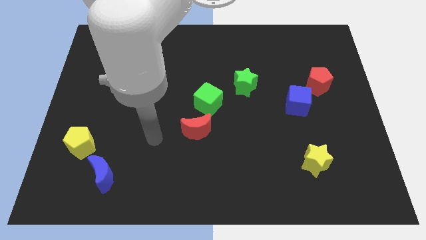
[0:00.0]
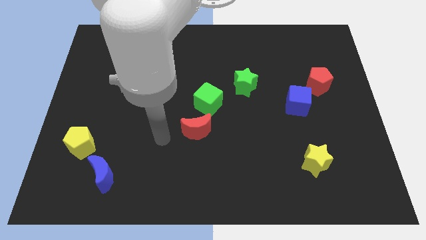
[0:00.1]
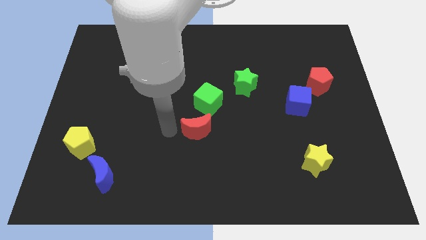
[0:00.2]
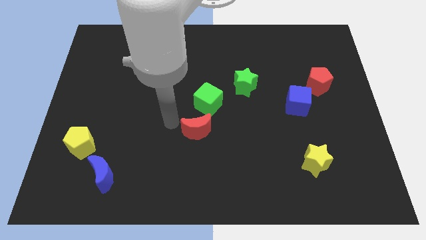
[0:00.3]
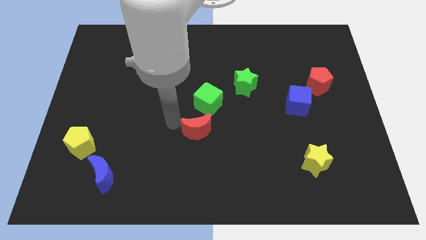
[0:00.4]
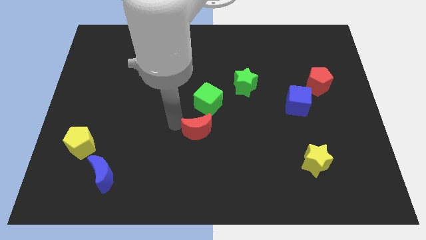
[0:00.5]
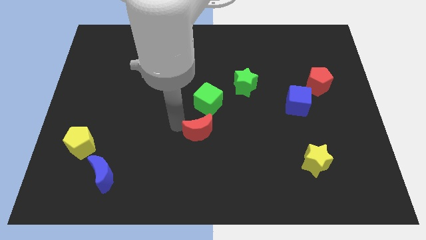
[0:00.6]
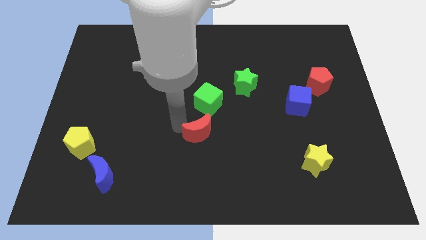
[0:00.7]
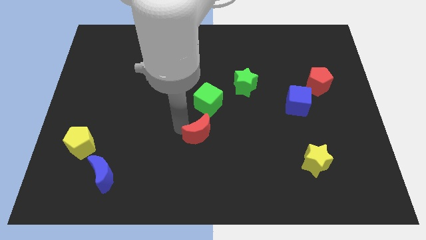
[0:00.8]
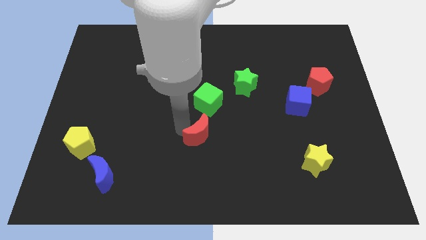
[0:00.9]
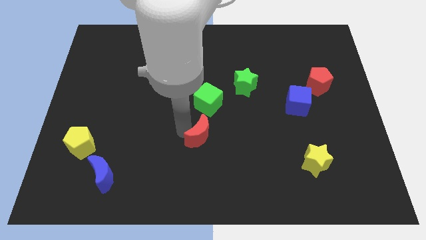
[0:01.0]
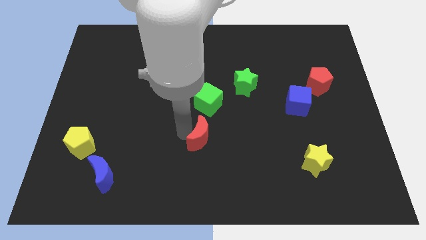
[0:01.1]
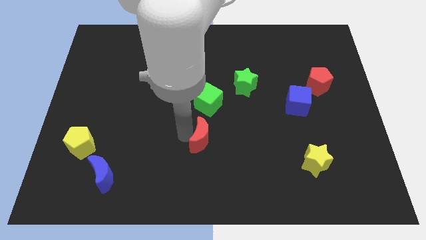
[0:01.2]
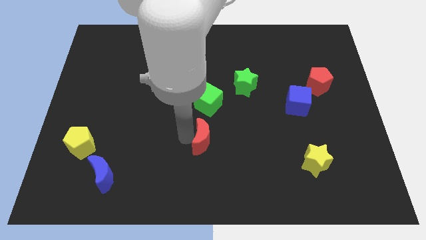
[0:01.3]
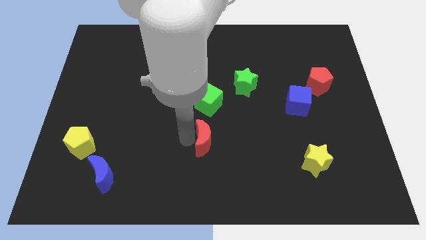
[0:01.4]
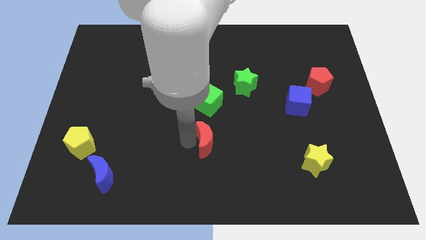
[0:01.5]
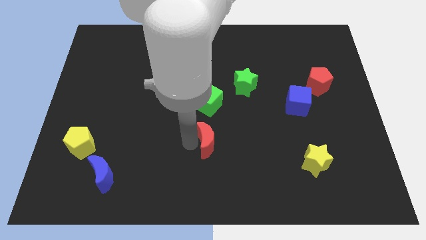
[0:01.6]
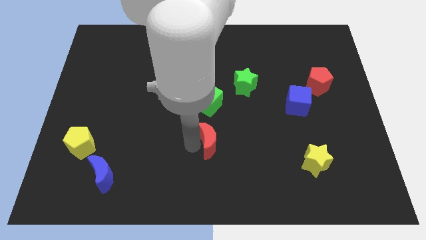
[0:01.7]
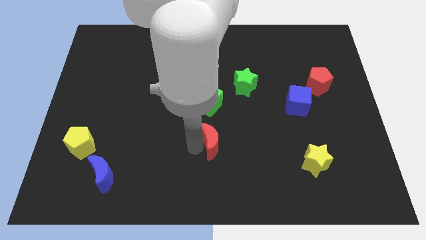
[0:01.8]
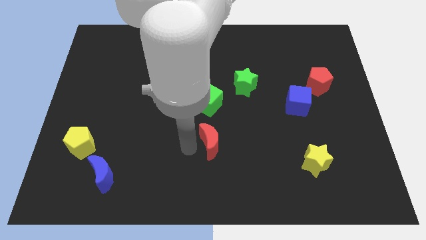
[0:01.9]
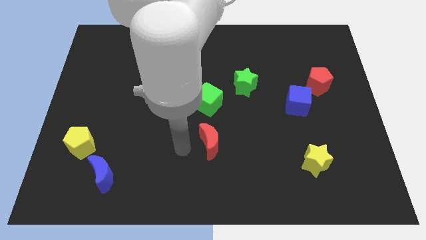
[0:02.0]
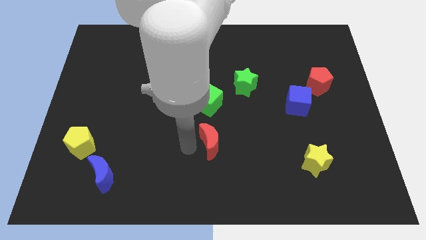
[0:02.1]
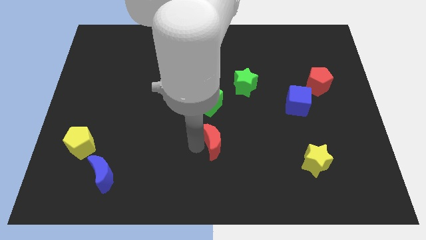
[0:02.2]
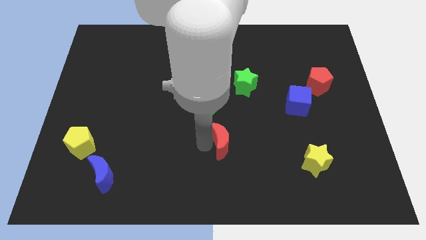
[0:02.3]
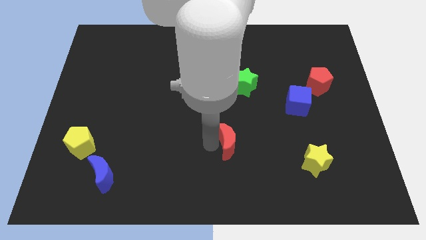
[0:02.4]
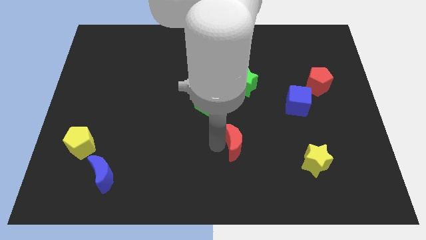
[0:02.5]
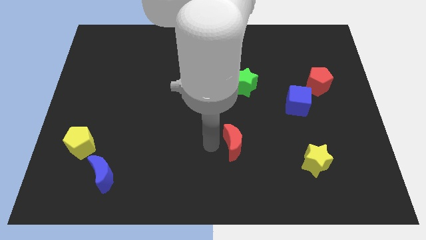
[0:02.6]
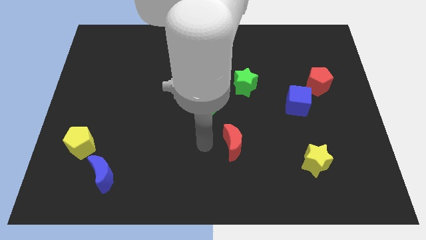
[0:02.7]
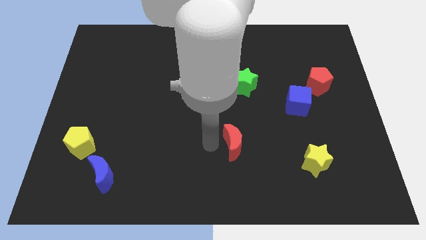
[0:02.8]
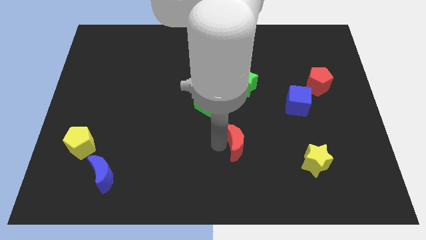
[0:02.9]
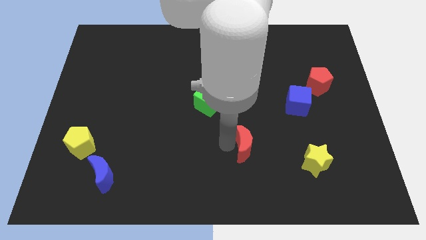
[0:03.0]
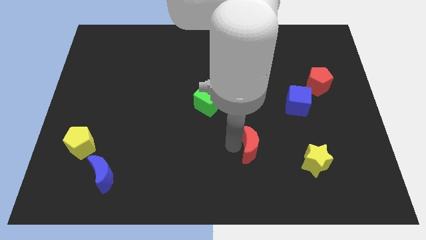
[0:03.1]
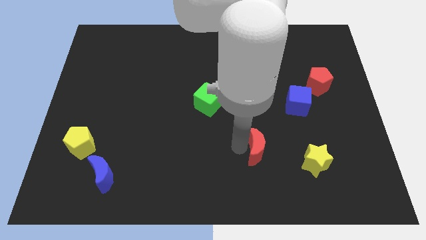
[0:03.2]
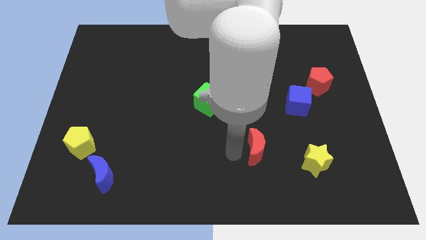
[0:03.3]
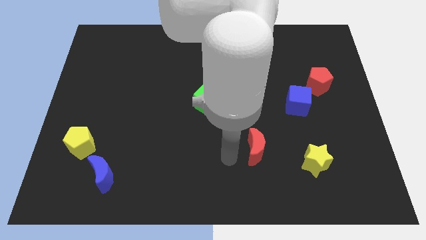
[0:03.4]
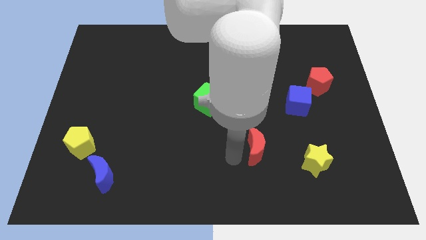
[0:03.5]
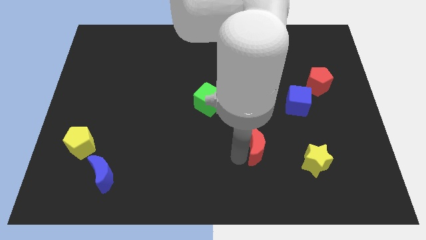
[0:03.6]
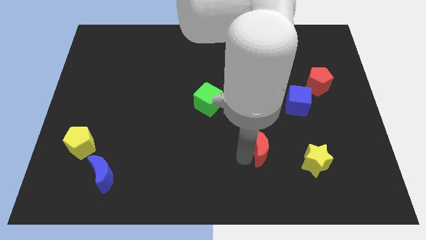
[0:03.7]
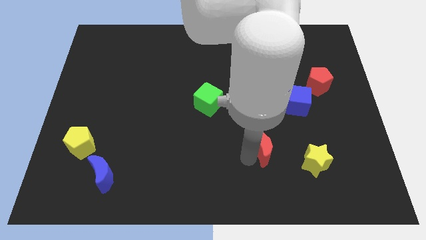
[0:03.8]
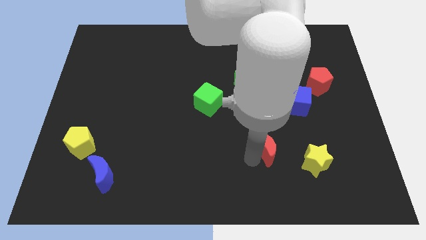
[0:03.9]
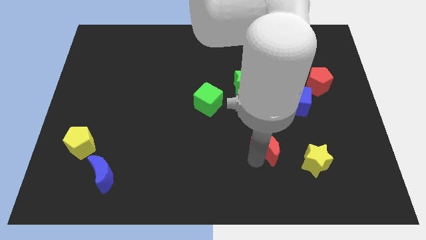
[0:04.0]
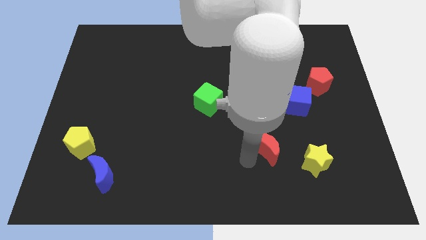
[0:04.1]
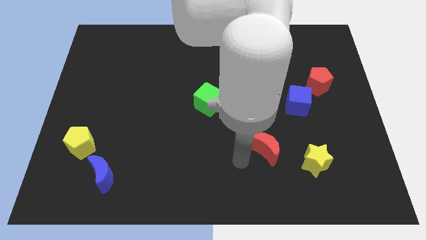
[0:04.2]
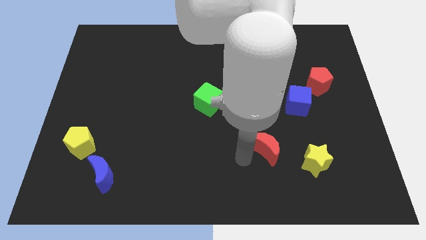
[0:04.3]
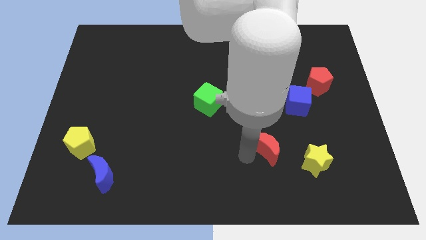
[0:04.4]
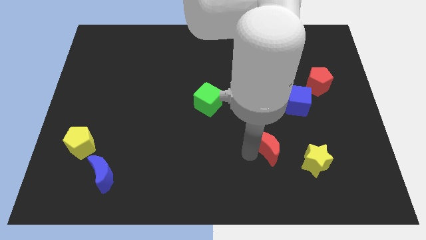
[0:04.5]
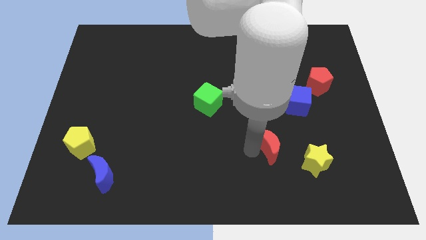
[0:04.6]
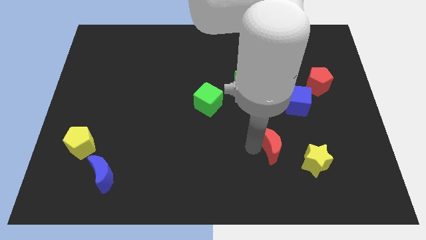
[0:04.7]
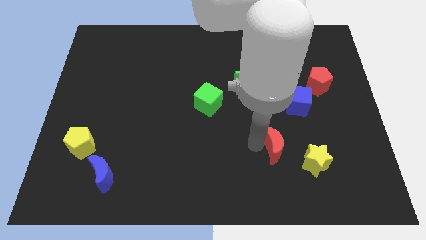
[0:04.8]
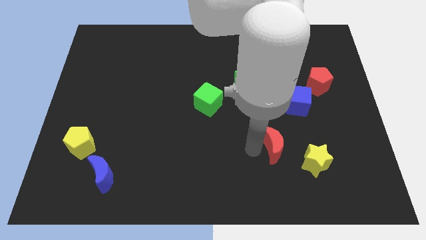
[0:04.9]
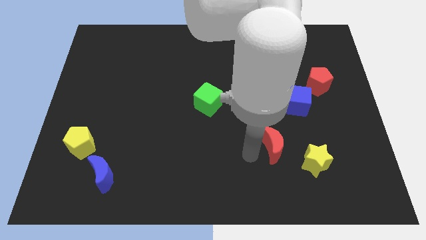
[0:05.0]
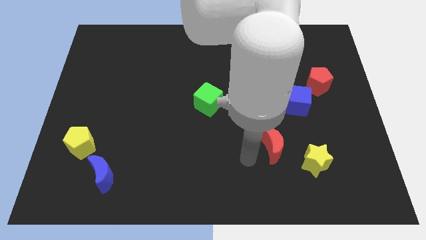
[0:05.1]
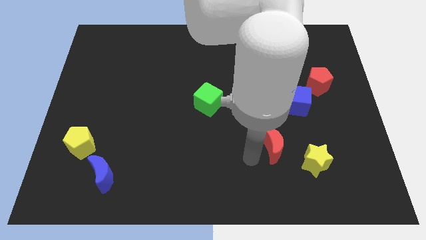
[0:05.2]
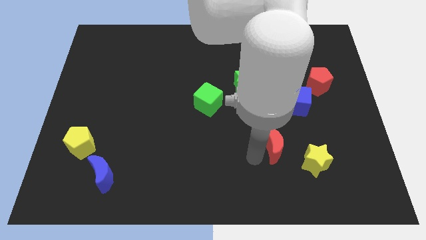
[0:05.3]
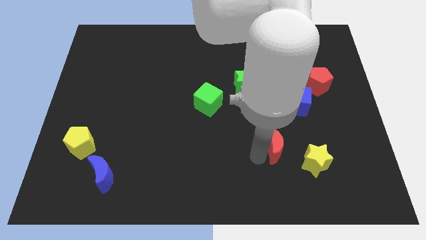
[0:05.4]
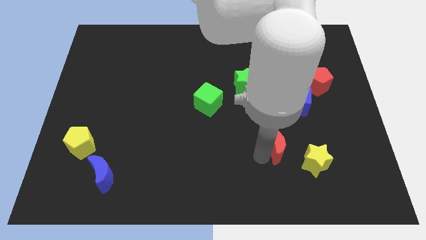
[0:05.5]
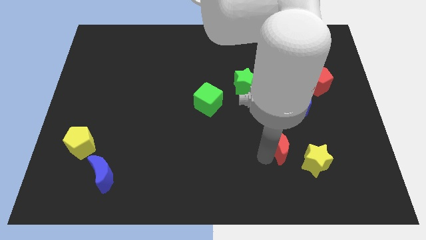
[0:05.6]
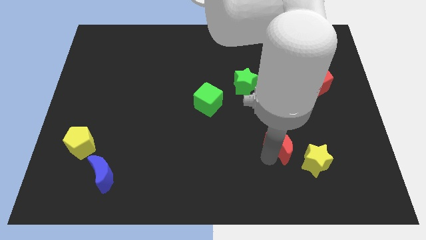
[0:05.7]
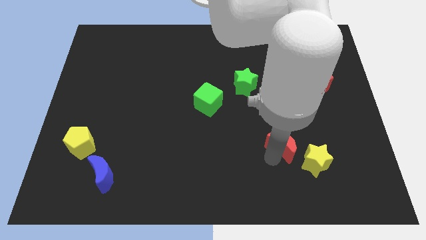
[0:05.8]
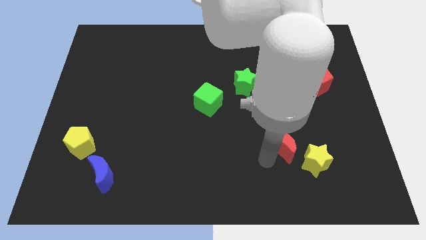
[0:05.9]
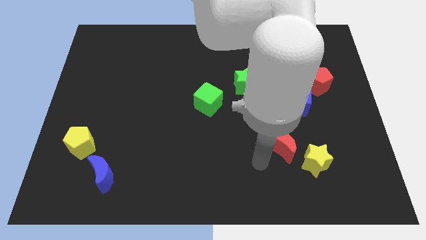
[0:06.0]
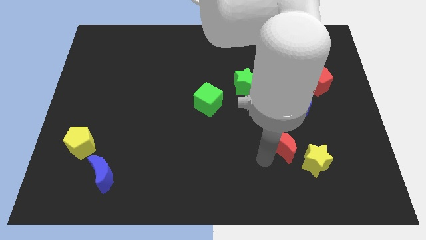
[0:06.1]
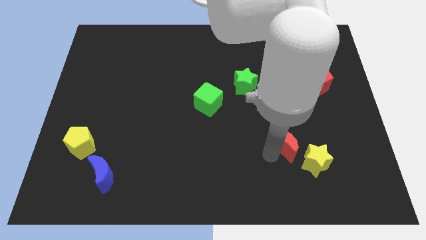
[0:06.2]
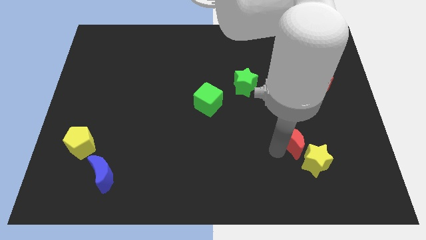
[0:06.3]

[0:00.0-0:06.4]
move the red moon to the right

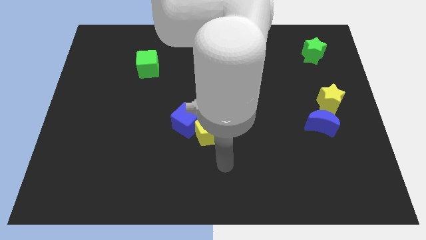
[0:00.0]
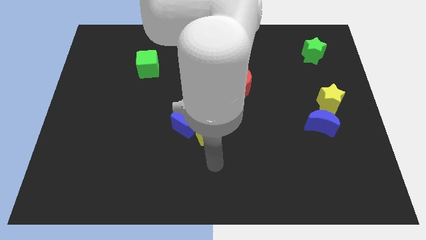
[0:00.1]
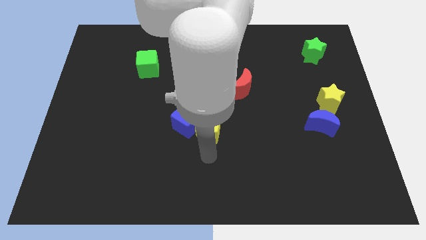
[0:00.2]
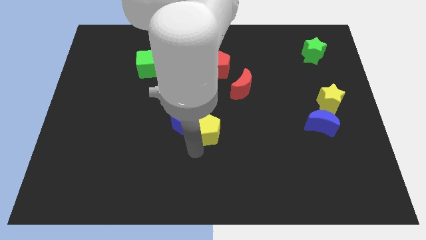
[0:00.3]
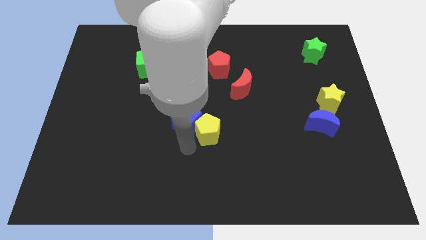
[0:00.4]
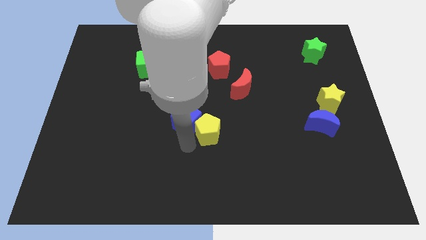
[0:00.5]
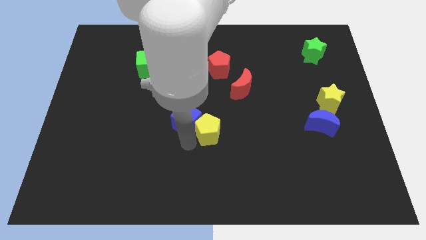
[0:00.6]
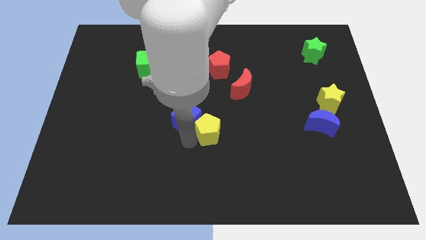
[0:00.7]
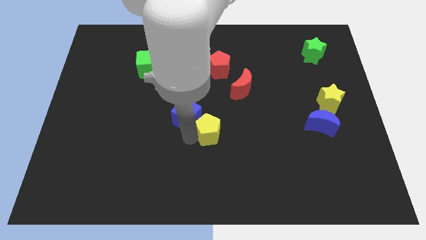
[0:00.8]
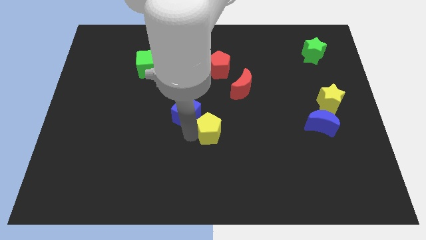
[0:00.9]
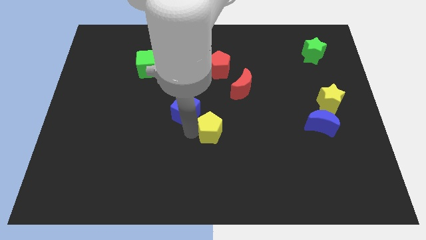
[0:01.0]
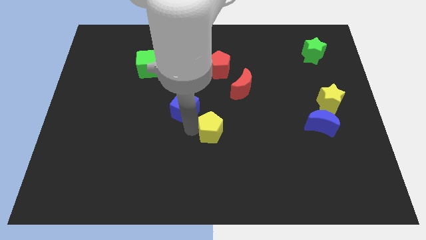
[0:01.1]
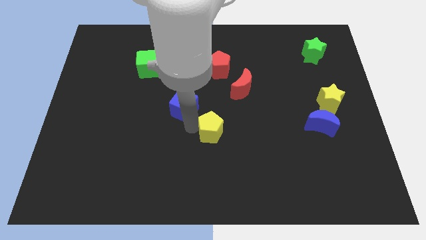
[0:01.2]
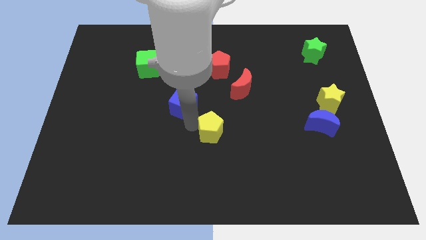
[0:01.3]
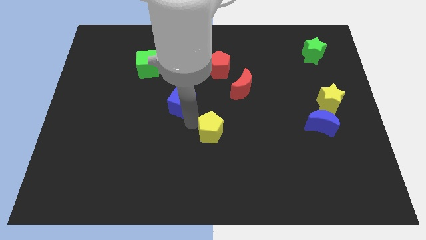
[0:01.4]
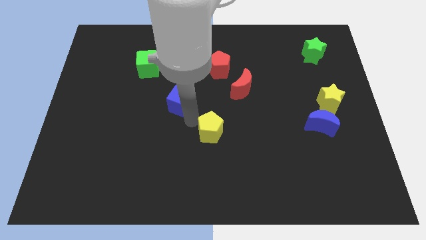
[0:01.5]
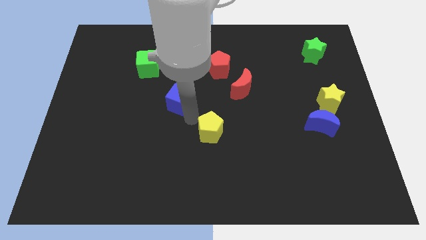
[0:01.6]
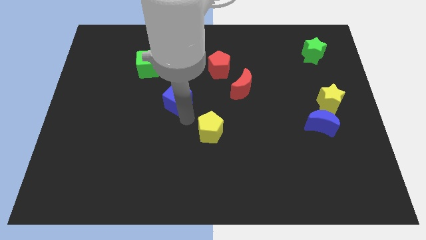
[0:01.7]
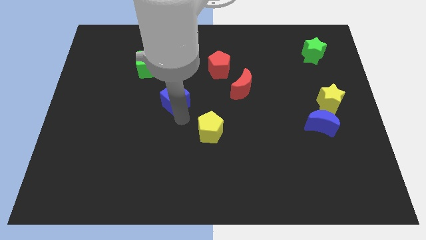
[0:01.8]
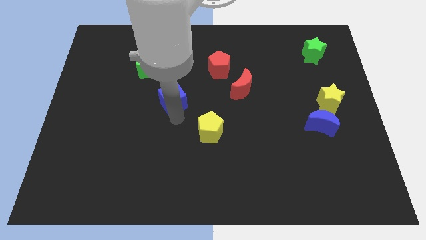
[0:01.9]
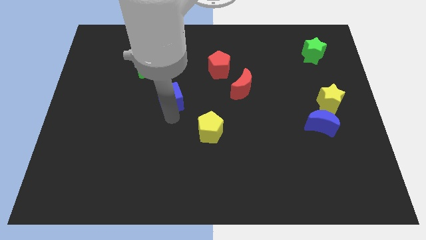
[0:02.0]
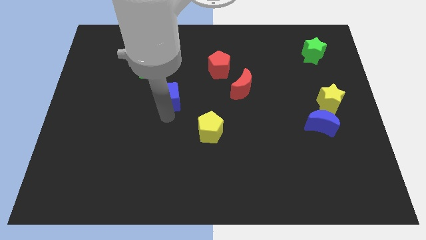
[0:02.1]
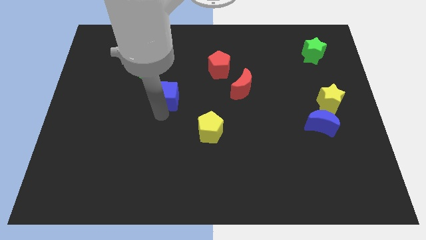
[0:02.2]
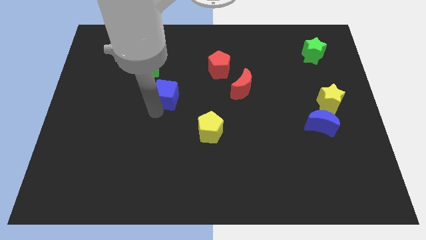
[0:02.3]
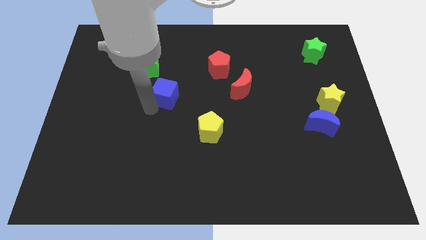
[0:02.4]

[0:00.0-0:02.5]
push the blue cube upwards a little bit
